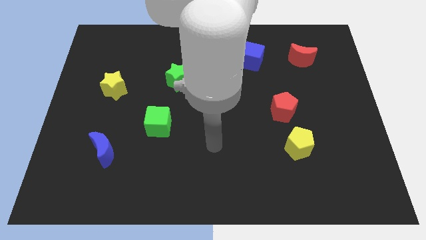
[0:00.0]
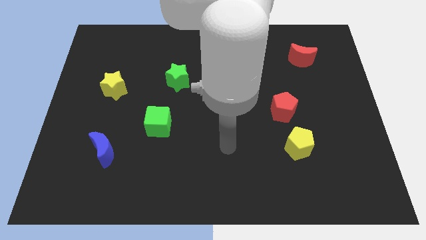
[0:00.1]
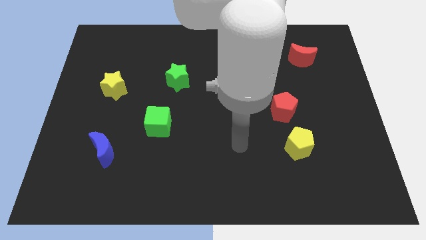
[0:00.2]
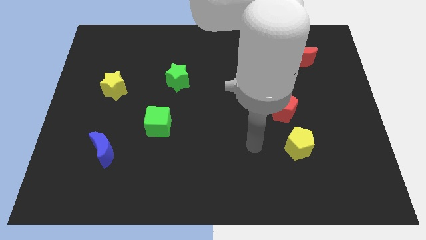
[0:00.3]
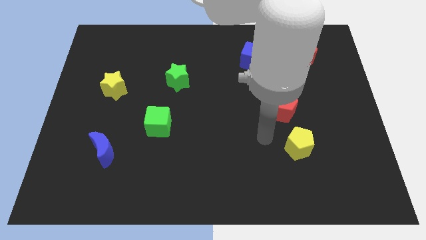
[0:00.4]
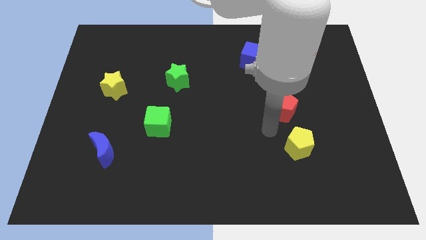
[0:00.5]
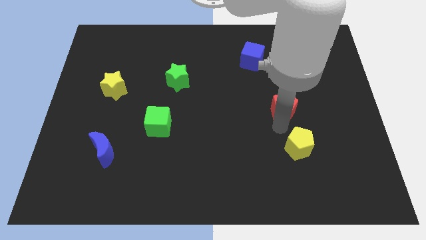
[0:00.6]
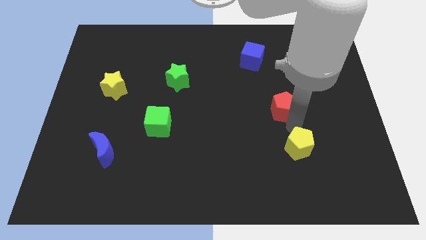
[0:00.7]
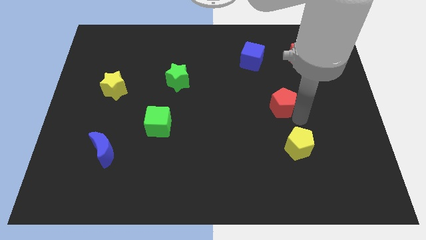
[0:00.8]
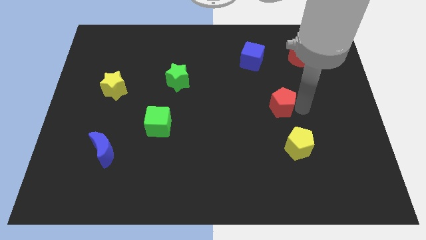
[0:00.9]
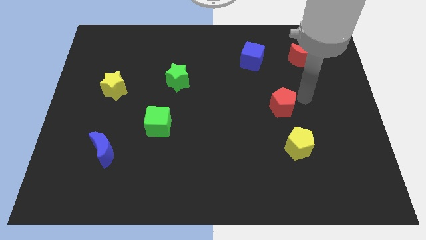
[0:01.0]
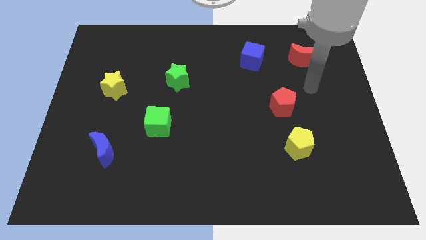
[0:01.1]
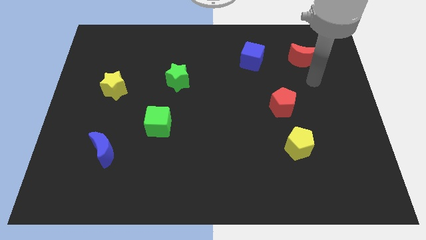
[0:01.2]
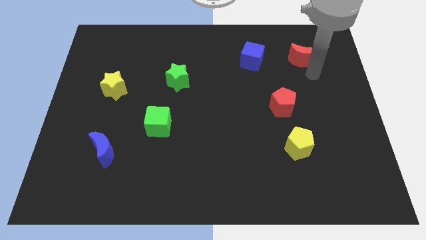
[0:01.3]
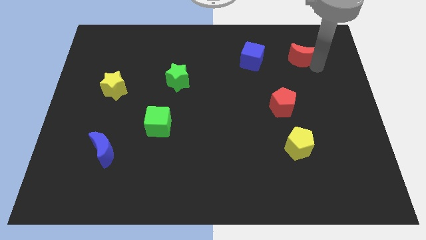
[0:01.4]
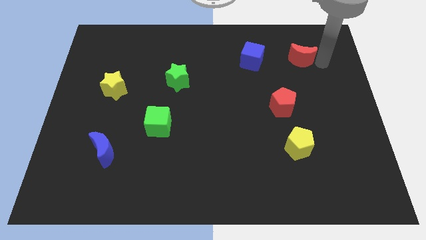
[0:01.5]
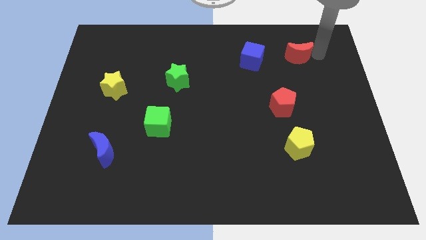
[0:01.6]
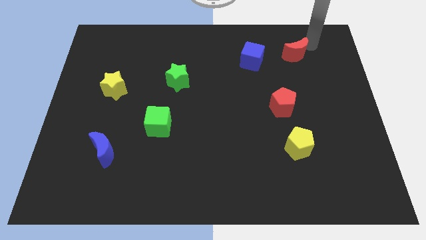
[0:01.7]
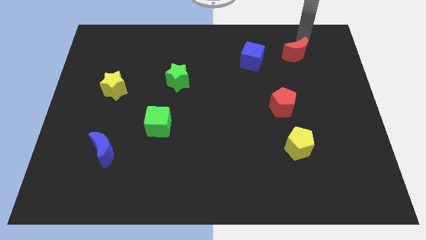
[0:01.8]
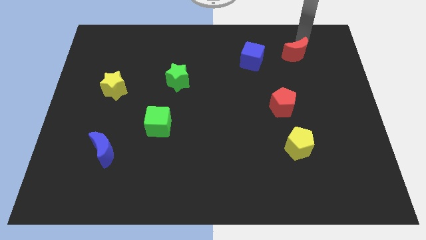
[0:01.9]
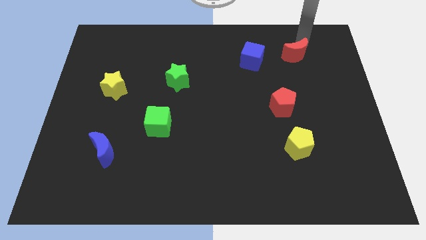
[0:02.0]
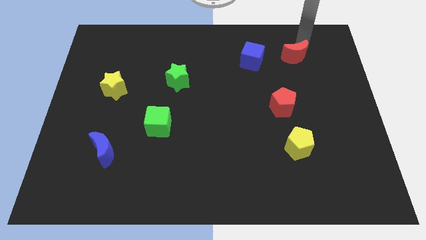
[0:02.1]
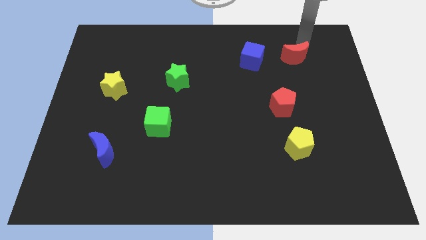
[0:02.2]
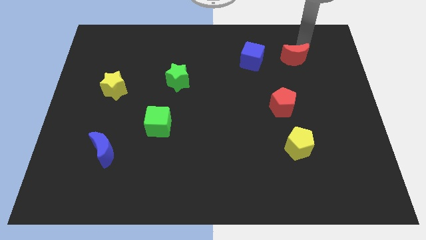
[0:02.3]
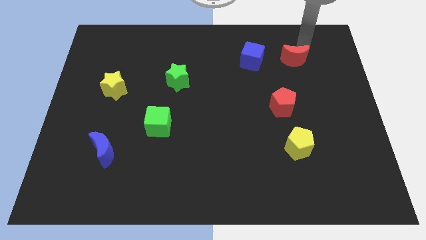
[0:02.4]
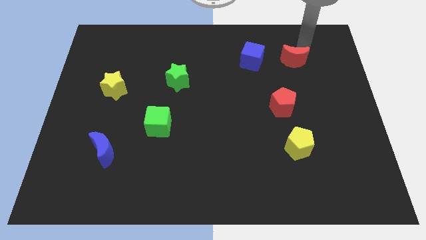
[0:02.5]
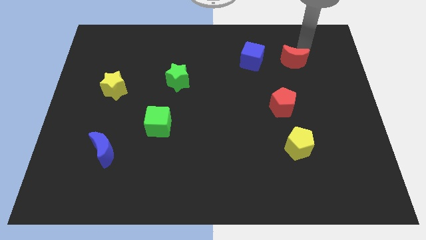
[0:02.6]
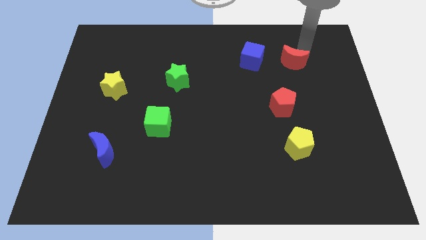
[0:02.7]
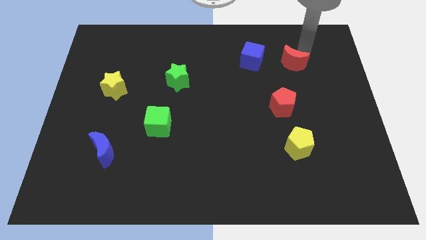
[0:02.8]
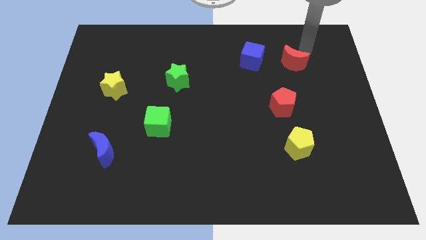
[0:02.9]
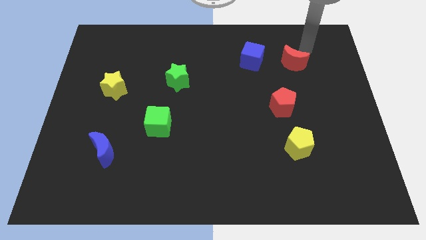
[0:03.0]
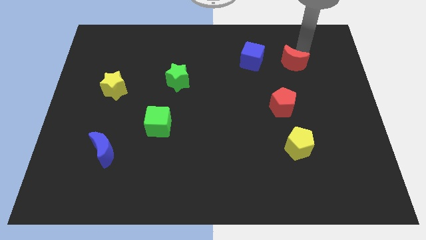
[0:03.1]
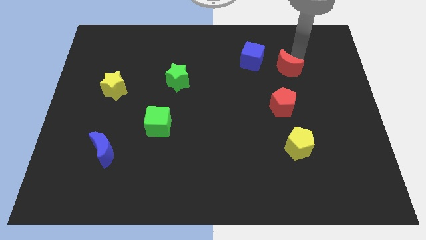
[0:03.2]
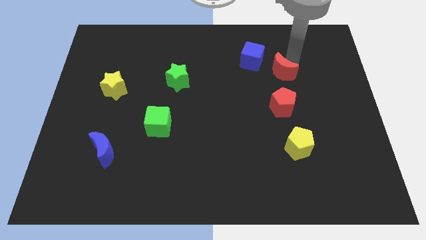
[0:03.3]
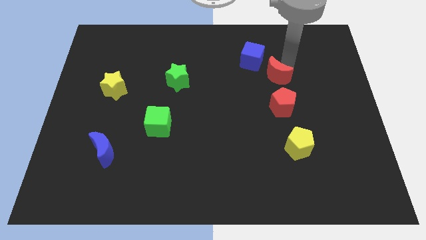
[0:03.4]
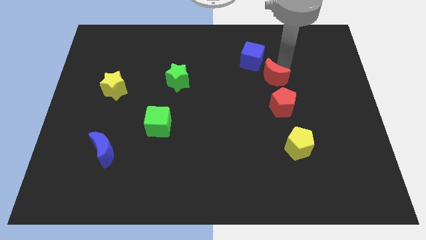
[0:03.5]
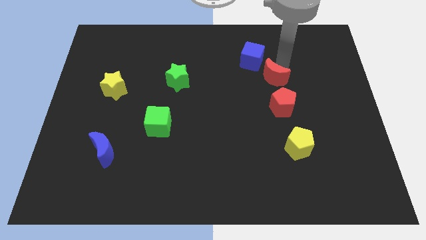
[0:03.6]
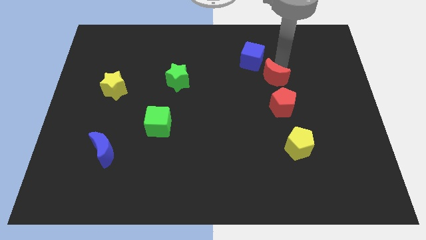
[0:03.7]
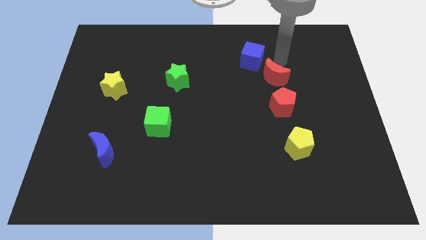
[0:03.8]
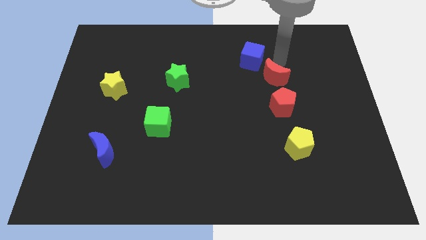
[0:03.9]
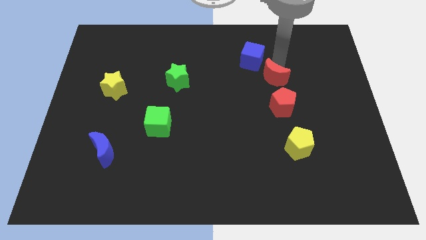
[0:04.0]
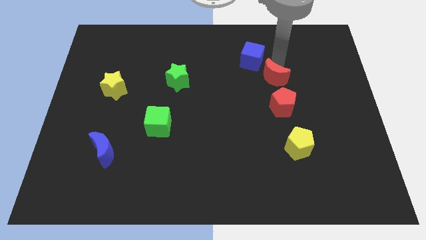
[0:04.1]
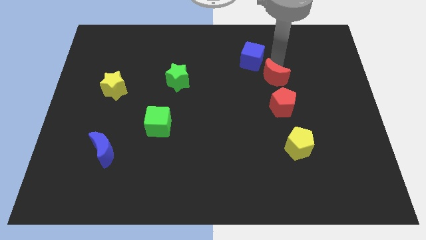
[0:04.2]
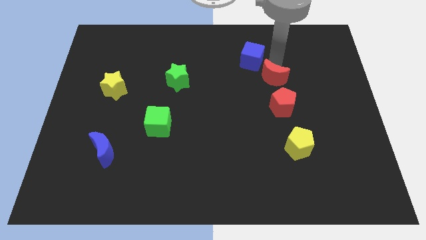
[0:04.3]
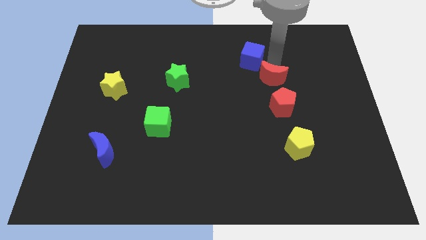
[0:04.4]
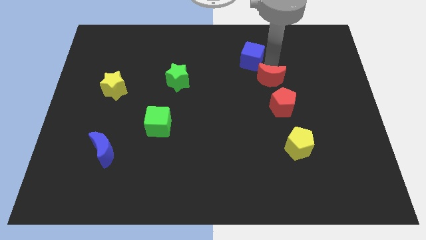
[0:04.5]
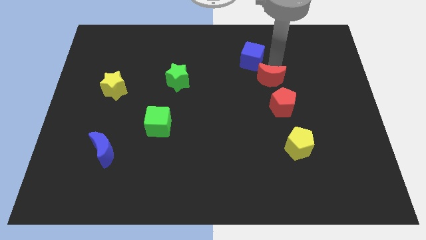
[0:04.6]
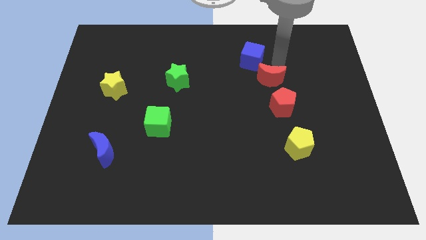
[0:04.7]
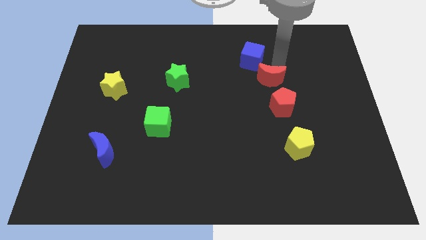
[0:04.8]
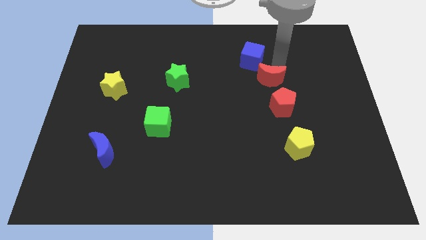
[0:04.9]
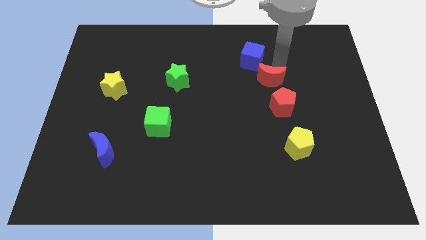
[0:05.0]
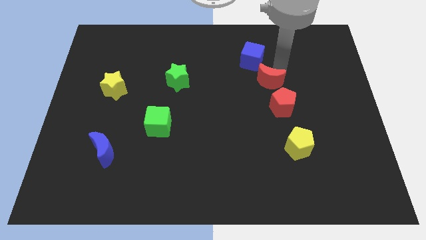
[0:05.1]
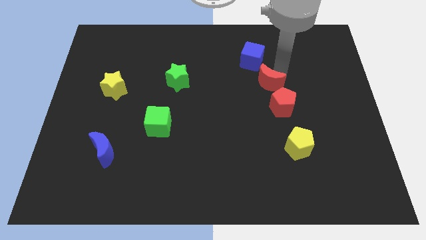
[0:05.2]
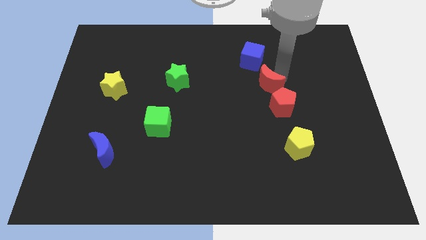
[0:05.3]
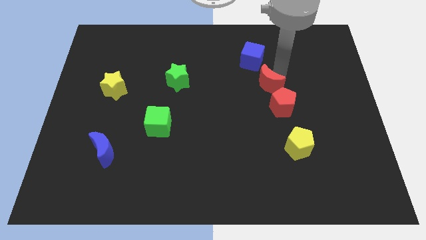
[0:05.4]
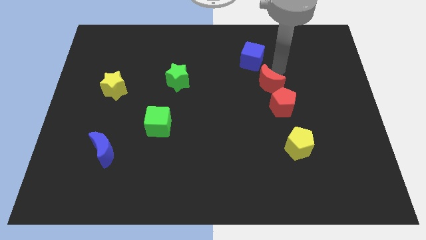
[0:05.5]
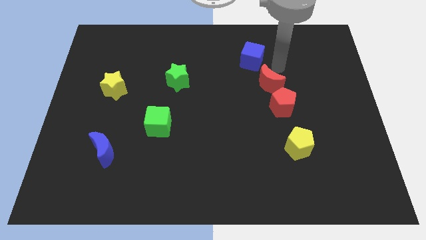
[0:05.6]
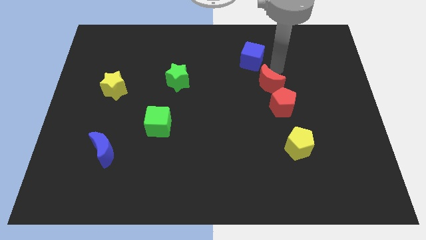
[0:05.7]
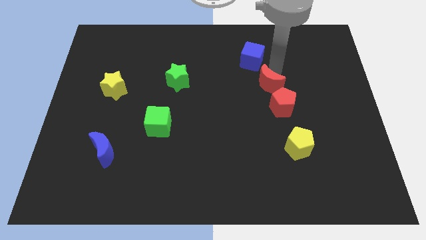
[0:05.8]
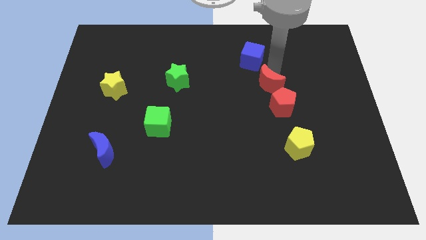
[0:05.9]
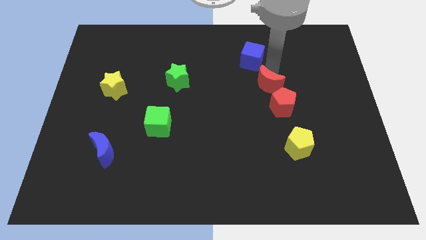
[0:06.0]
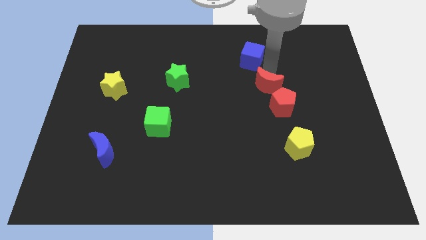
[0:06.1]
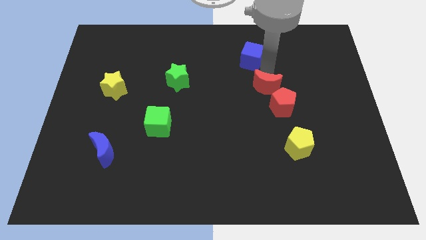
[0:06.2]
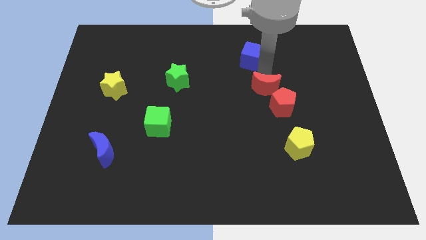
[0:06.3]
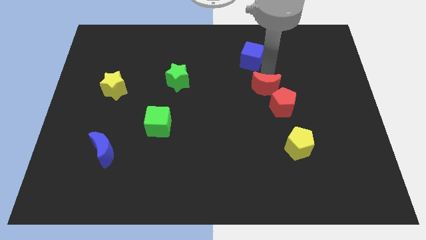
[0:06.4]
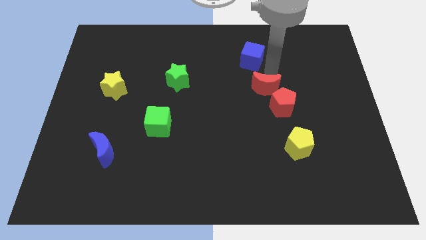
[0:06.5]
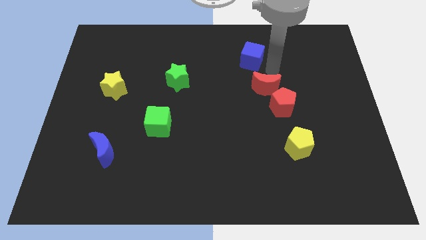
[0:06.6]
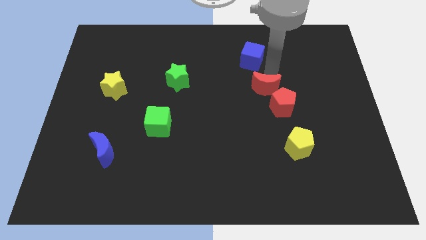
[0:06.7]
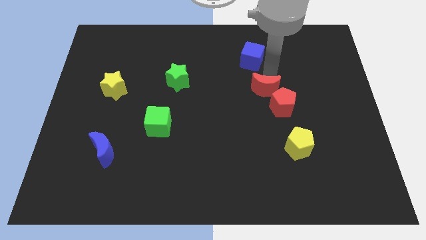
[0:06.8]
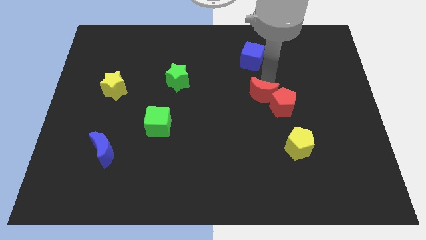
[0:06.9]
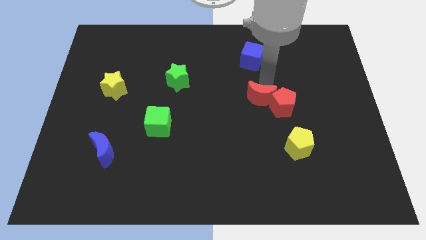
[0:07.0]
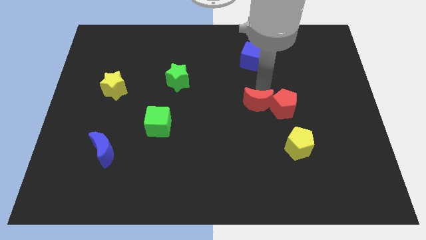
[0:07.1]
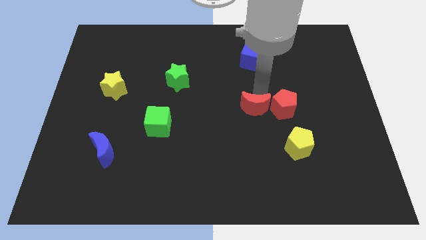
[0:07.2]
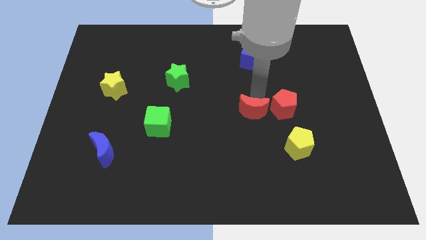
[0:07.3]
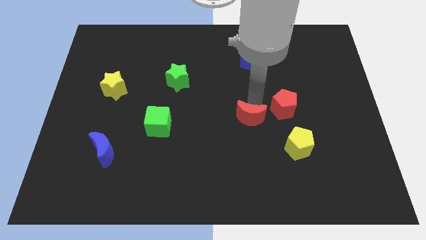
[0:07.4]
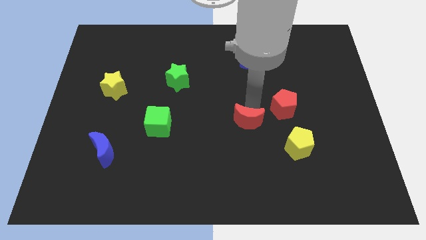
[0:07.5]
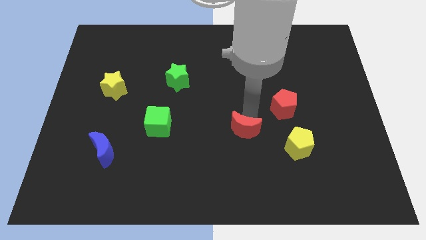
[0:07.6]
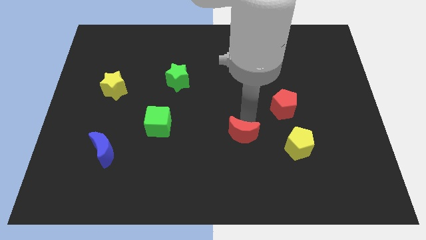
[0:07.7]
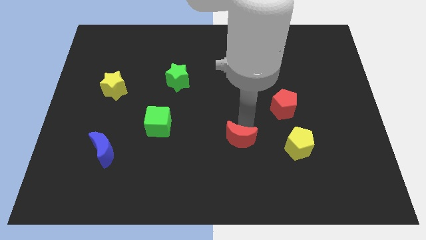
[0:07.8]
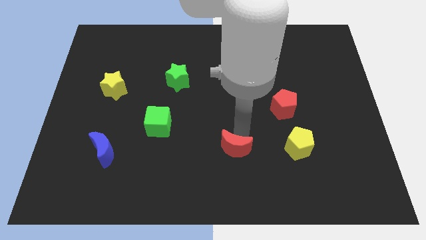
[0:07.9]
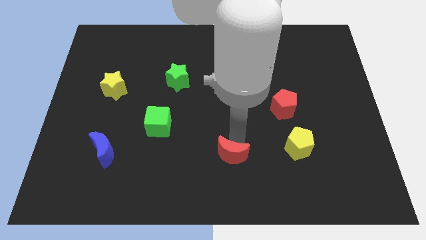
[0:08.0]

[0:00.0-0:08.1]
slide the red moon to the bottom
